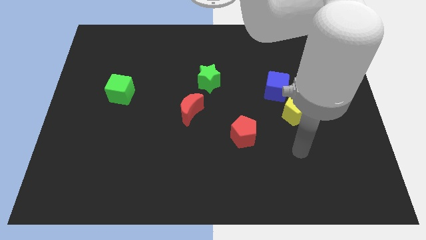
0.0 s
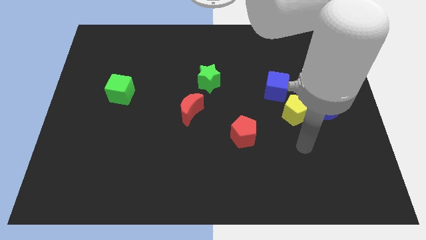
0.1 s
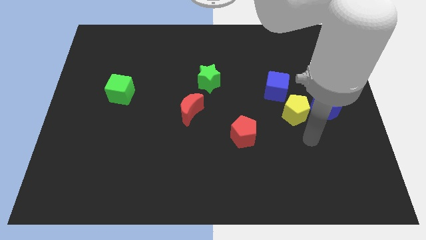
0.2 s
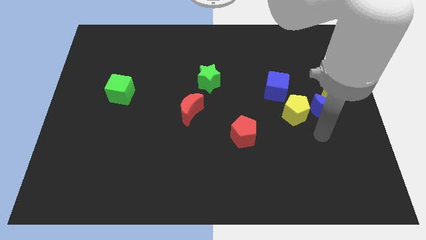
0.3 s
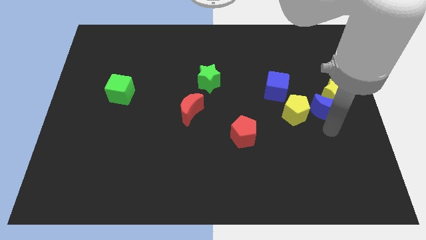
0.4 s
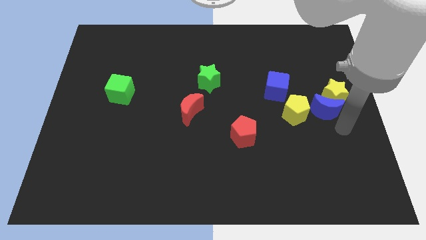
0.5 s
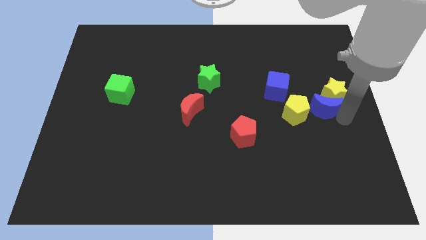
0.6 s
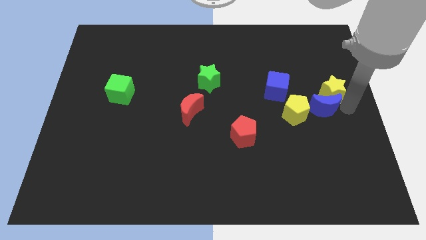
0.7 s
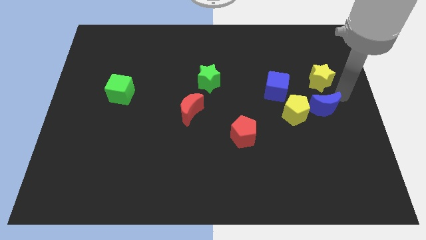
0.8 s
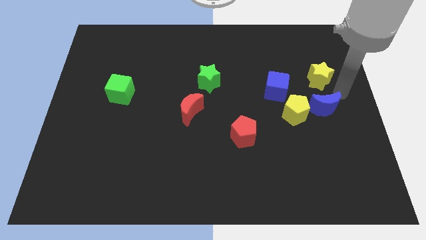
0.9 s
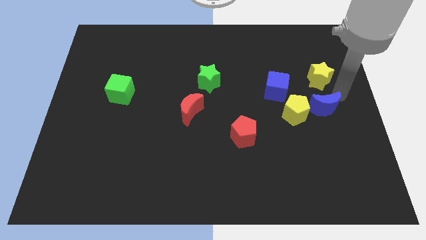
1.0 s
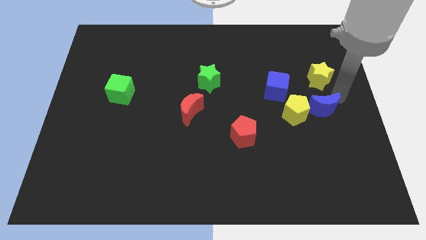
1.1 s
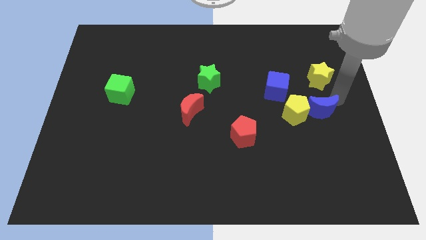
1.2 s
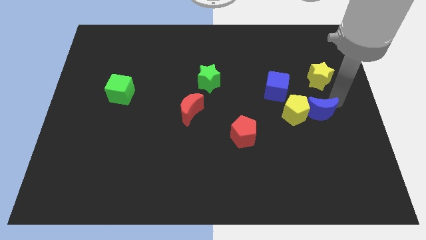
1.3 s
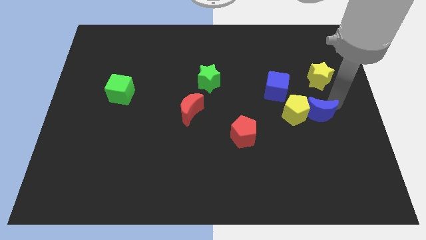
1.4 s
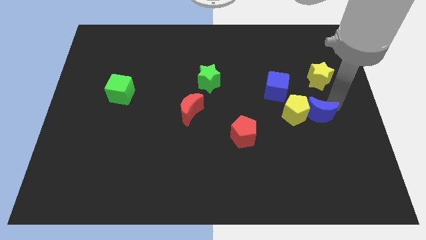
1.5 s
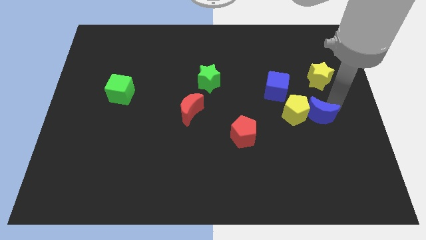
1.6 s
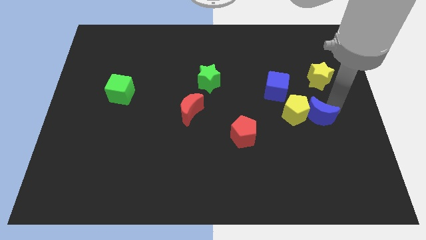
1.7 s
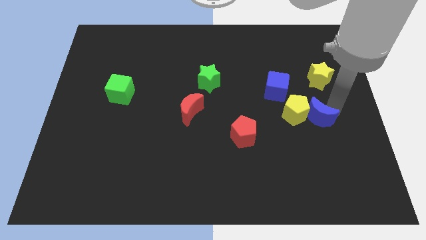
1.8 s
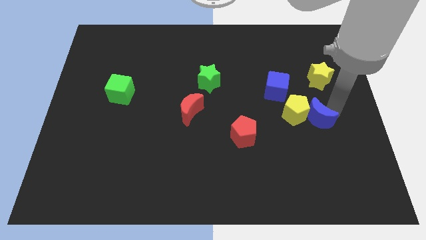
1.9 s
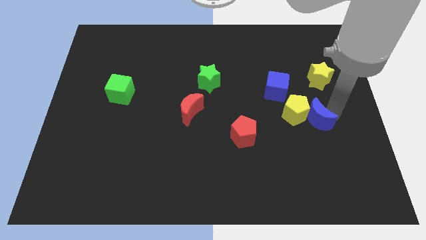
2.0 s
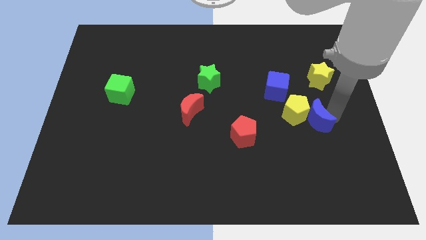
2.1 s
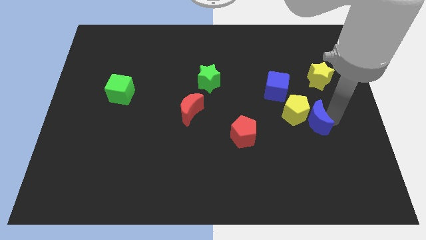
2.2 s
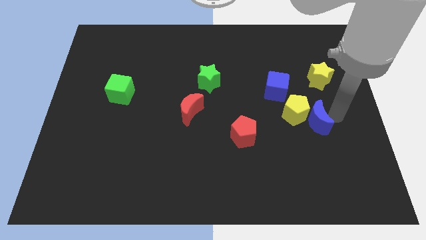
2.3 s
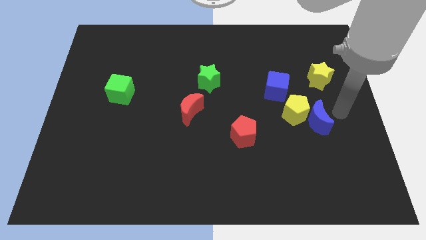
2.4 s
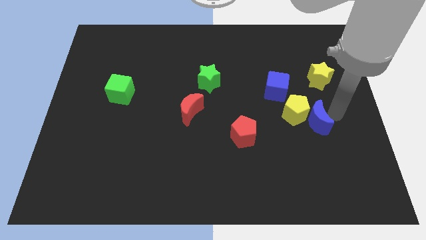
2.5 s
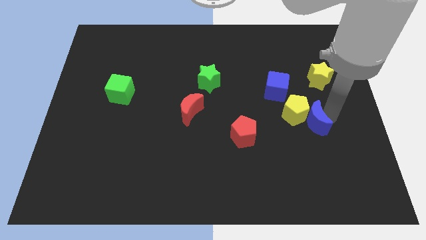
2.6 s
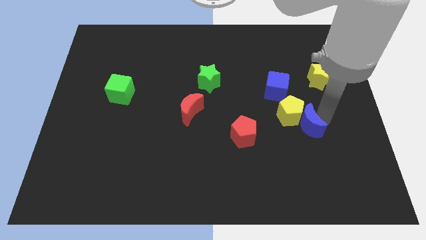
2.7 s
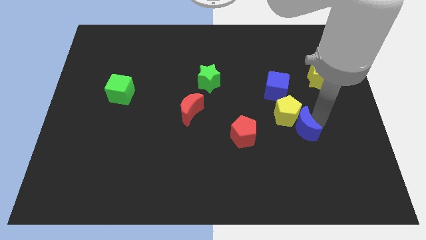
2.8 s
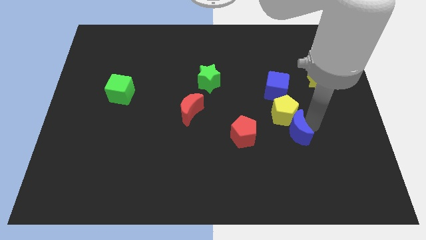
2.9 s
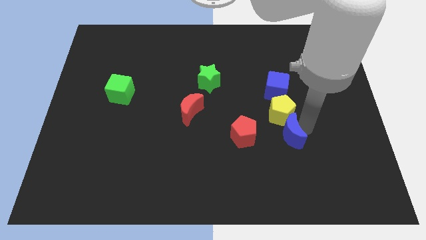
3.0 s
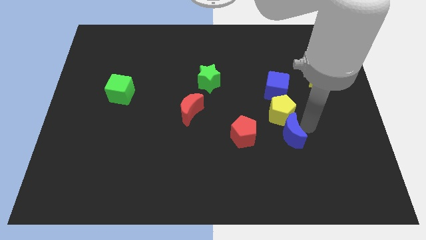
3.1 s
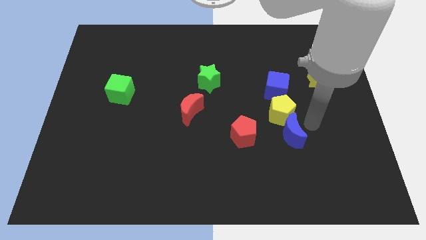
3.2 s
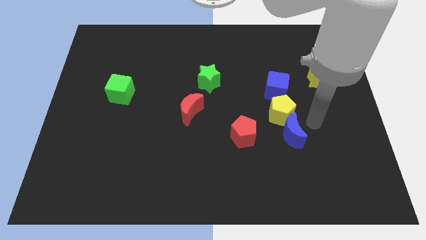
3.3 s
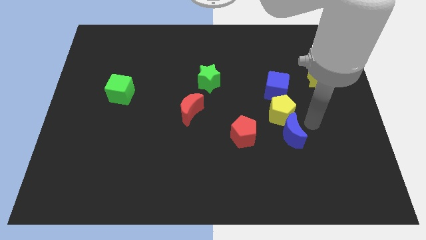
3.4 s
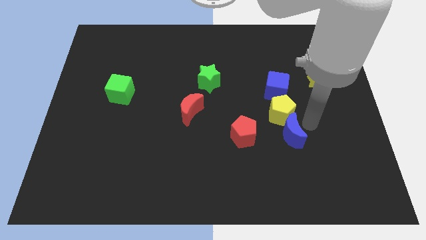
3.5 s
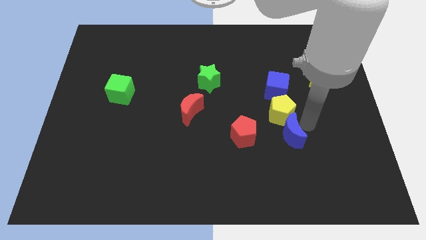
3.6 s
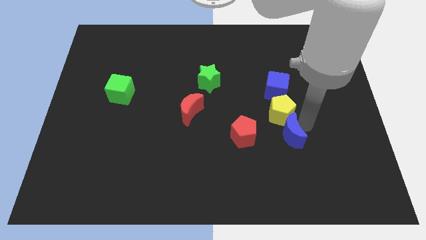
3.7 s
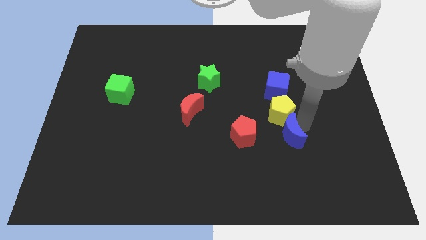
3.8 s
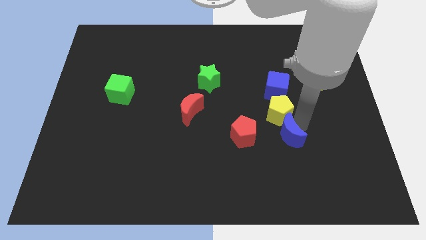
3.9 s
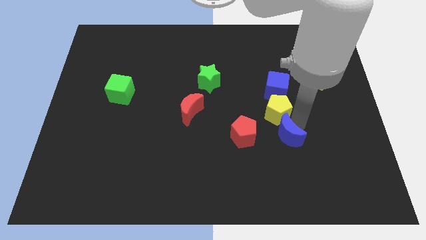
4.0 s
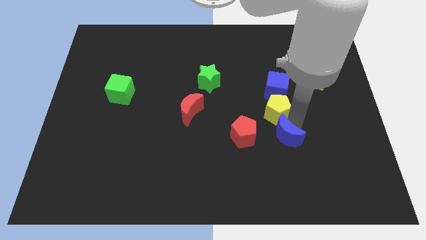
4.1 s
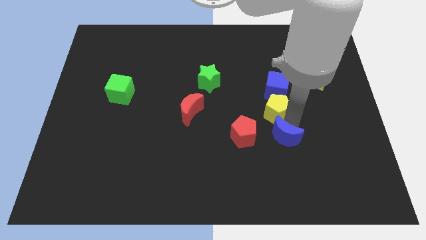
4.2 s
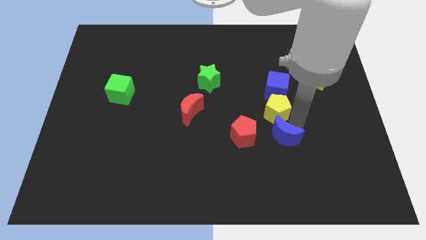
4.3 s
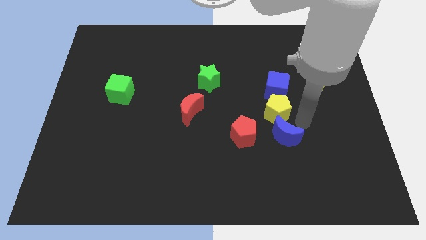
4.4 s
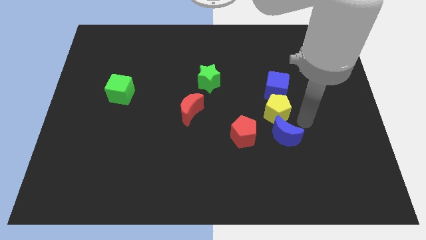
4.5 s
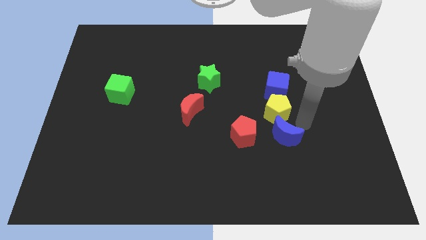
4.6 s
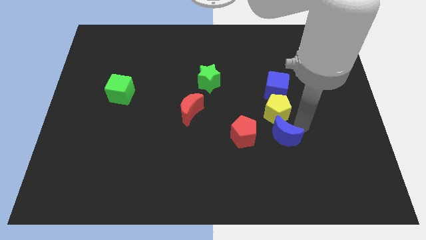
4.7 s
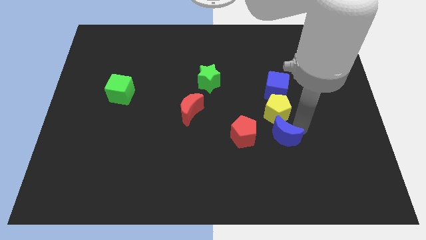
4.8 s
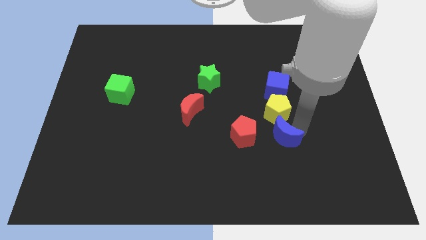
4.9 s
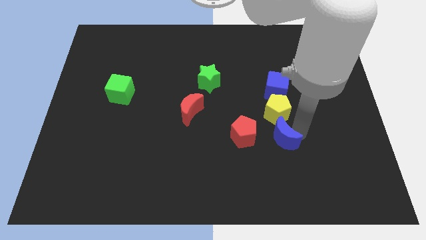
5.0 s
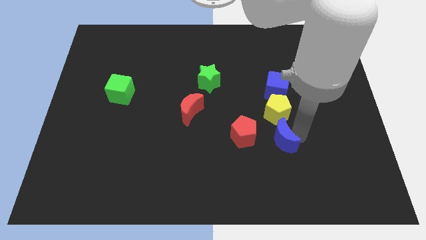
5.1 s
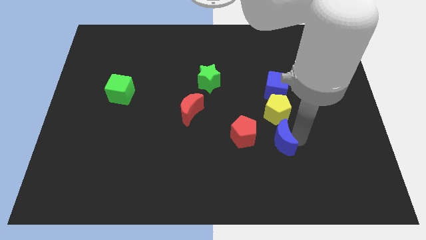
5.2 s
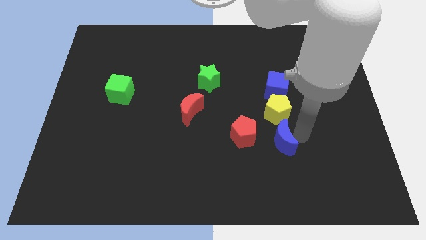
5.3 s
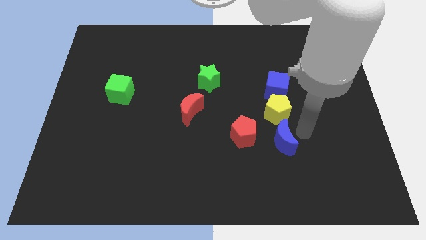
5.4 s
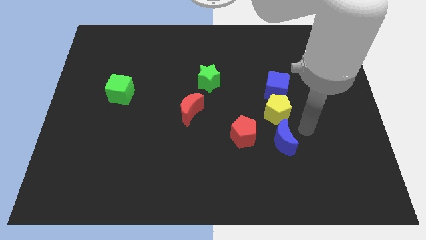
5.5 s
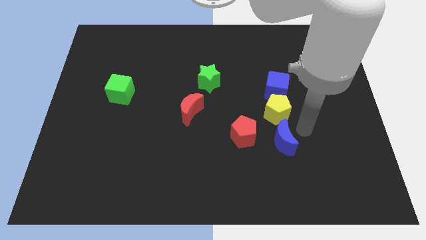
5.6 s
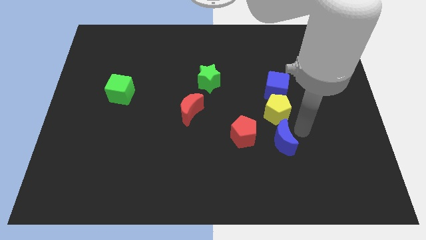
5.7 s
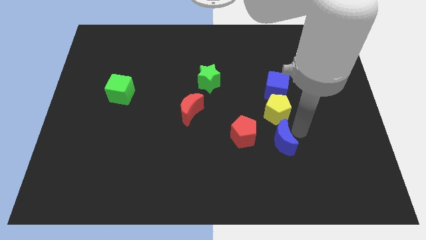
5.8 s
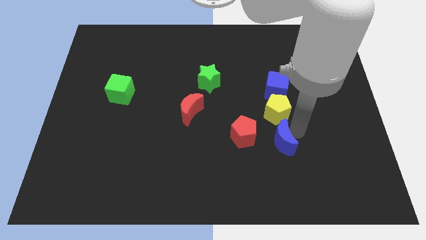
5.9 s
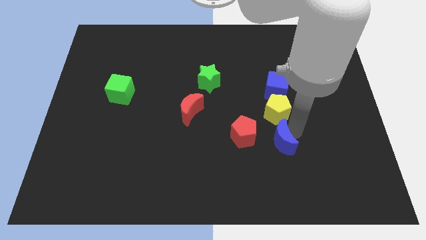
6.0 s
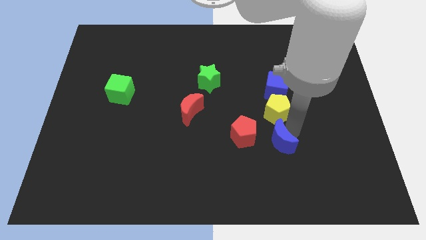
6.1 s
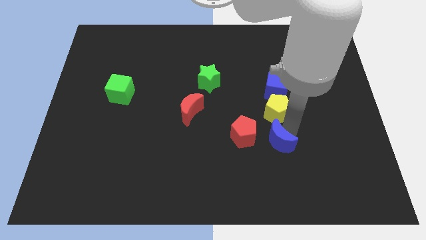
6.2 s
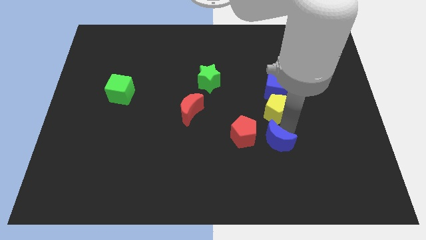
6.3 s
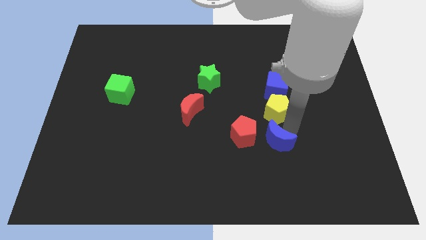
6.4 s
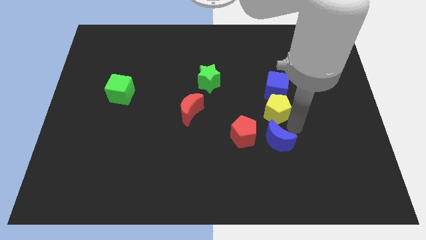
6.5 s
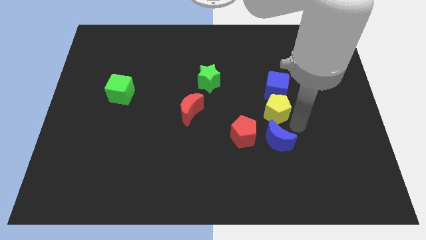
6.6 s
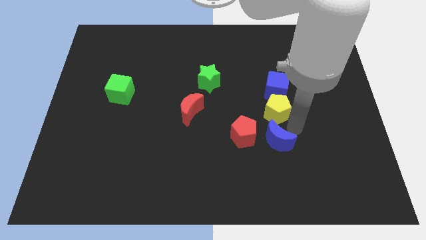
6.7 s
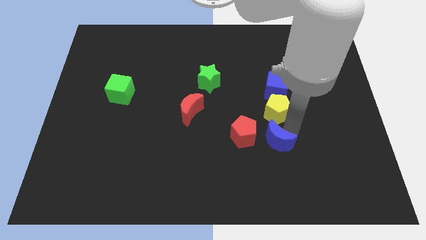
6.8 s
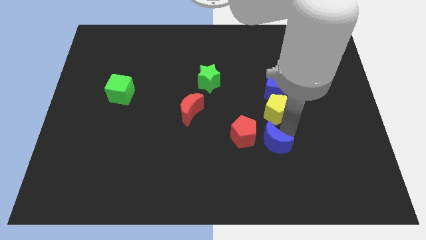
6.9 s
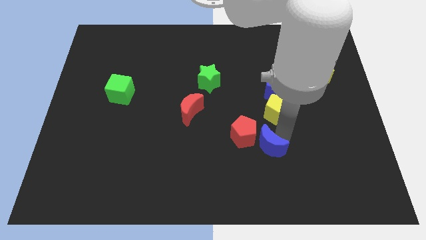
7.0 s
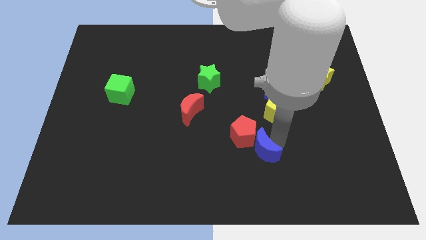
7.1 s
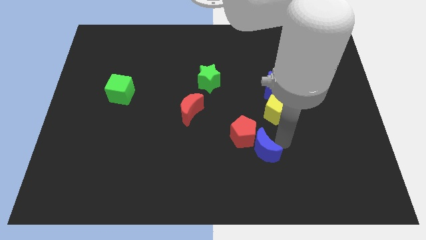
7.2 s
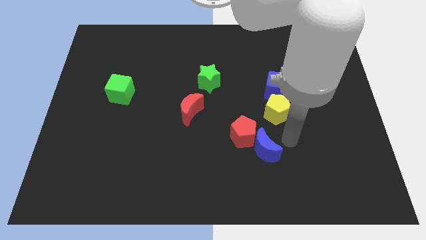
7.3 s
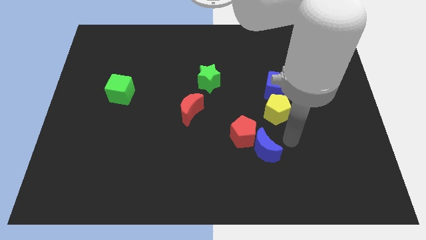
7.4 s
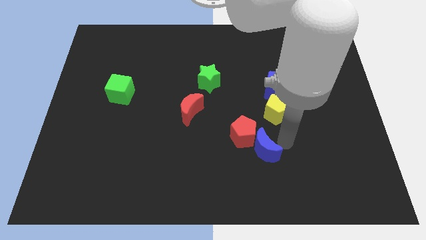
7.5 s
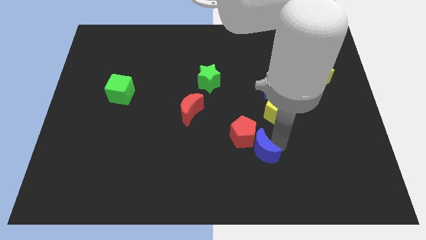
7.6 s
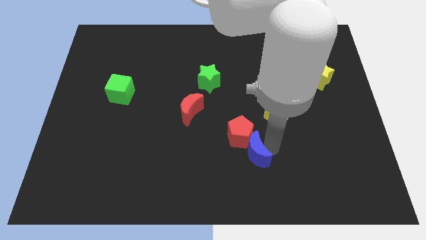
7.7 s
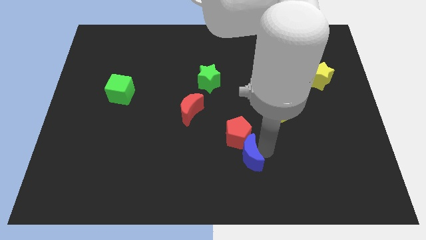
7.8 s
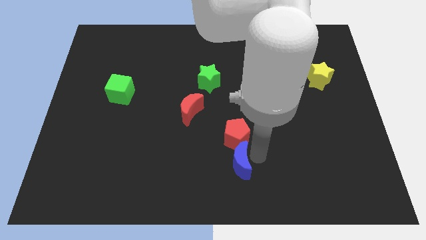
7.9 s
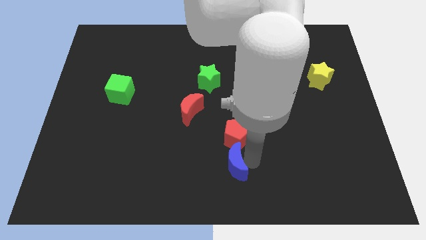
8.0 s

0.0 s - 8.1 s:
move the blue moon to the bottom left of the red pentagon
